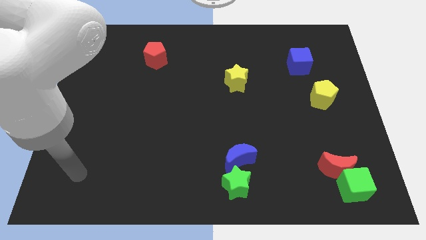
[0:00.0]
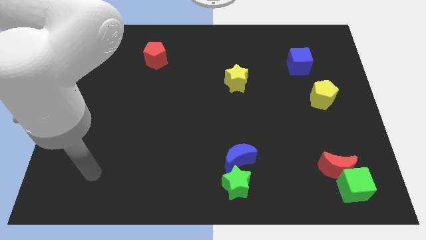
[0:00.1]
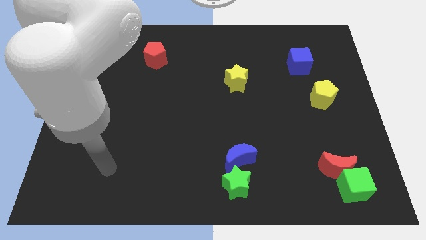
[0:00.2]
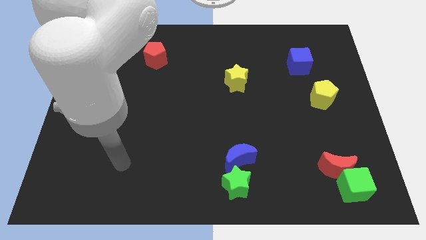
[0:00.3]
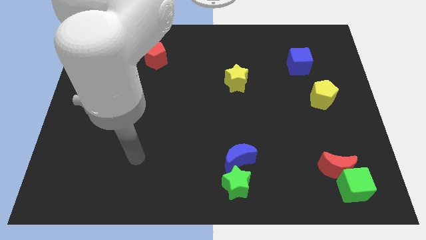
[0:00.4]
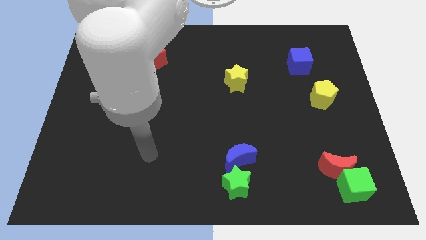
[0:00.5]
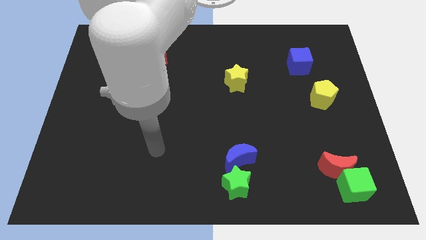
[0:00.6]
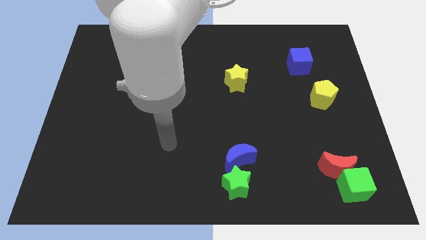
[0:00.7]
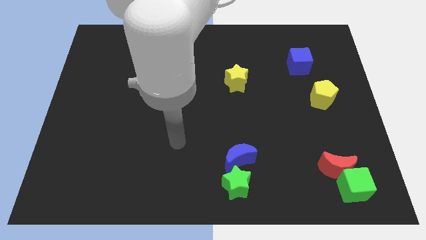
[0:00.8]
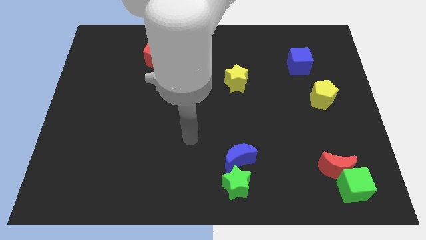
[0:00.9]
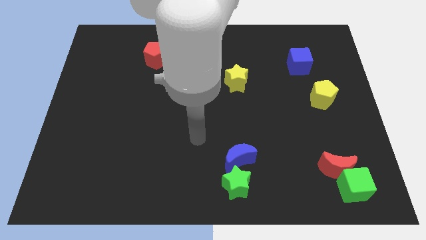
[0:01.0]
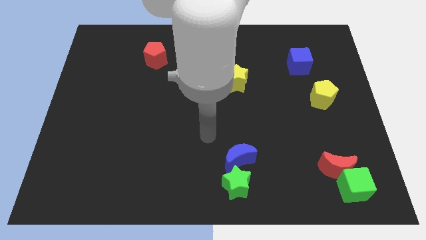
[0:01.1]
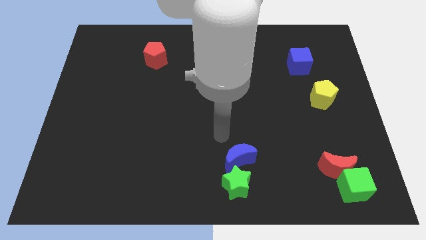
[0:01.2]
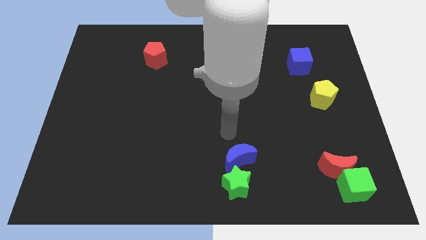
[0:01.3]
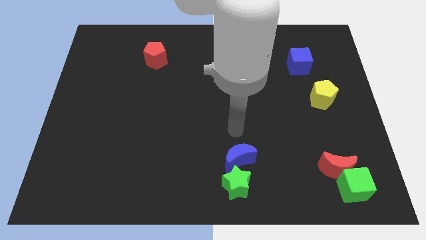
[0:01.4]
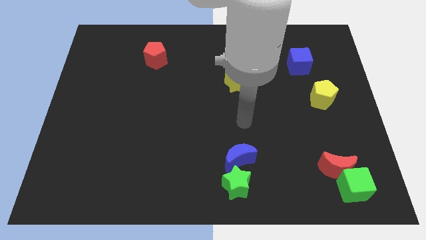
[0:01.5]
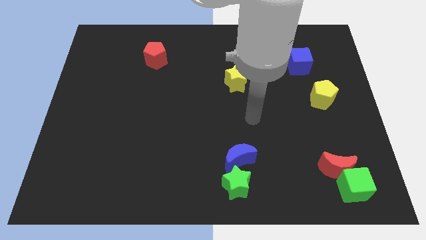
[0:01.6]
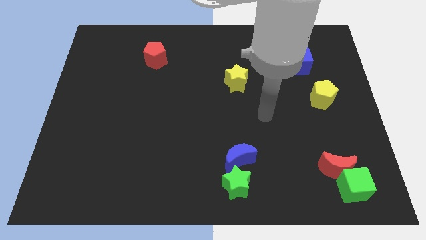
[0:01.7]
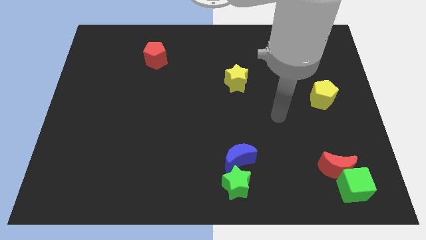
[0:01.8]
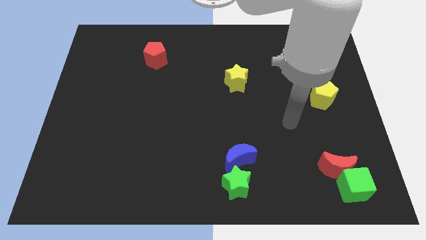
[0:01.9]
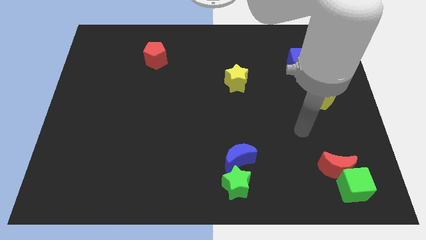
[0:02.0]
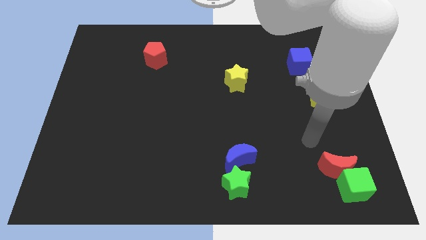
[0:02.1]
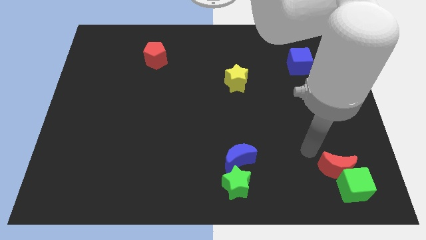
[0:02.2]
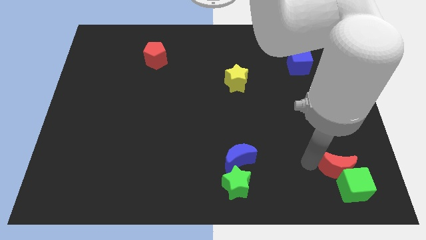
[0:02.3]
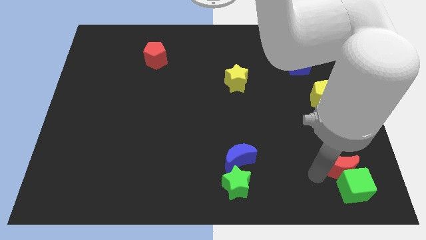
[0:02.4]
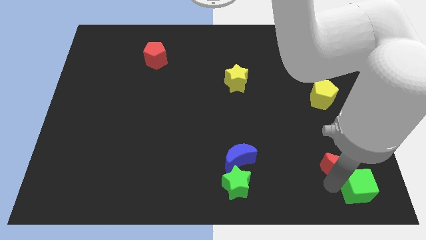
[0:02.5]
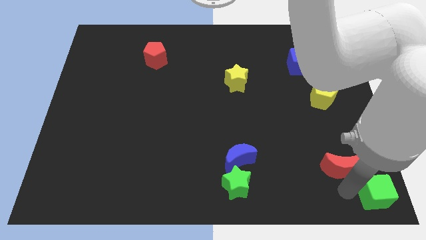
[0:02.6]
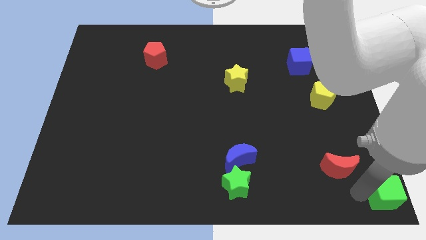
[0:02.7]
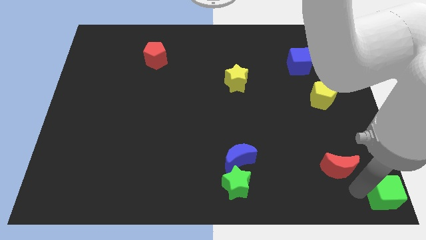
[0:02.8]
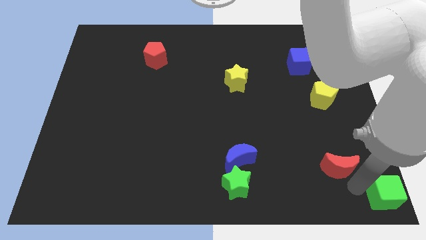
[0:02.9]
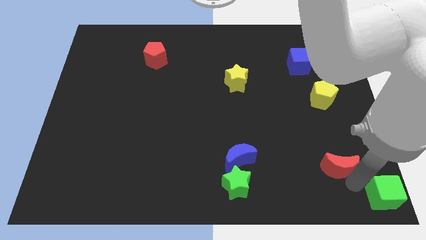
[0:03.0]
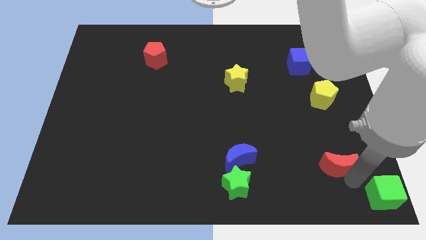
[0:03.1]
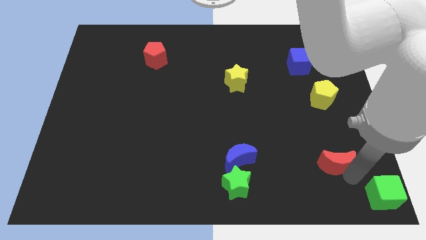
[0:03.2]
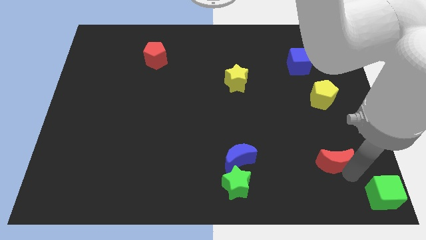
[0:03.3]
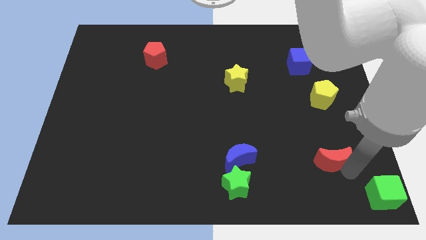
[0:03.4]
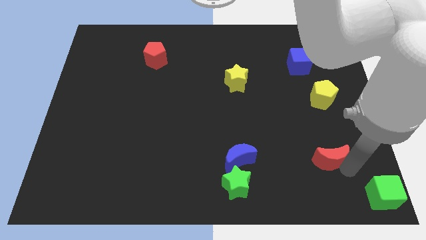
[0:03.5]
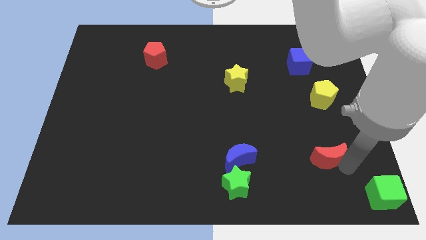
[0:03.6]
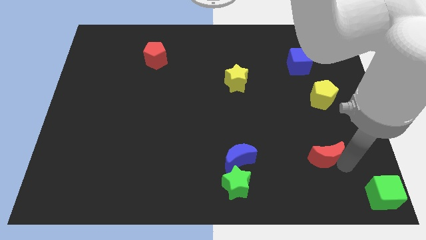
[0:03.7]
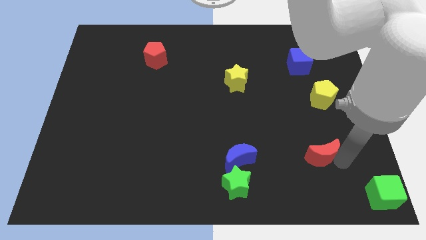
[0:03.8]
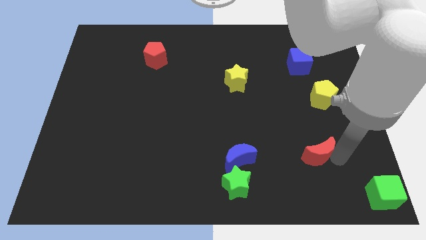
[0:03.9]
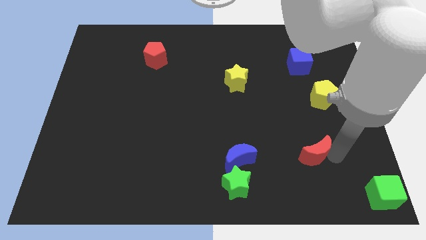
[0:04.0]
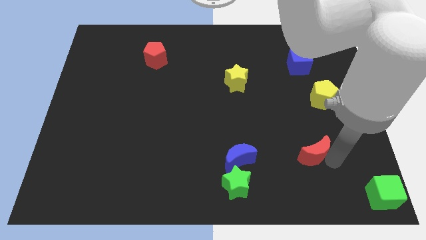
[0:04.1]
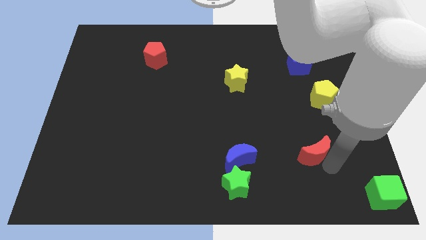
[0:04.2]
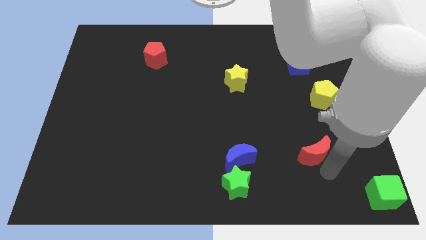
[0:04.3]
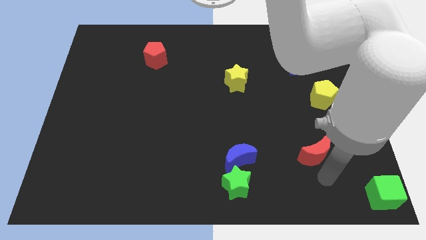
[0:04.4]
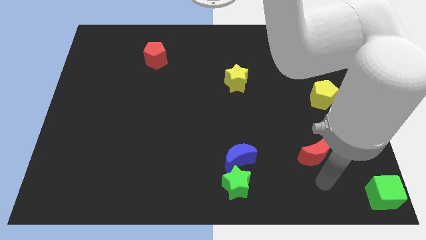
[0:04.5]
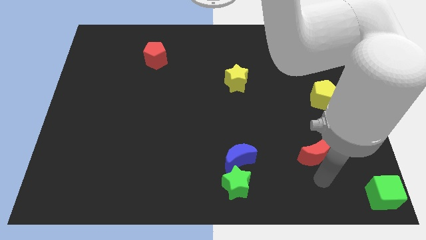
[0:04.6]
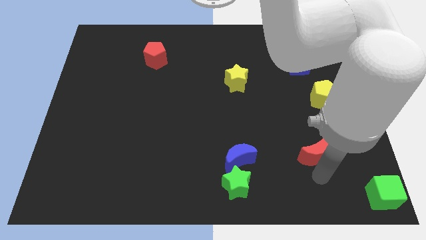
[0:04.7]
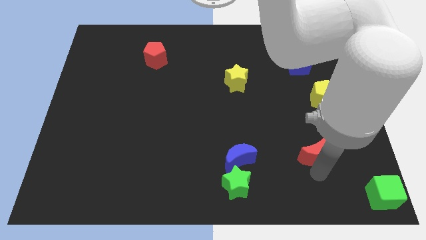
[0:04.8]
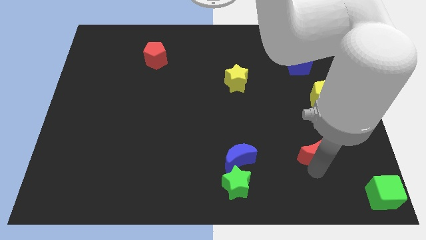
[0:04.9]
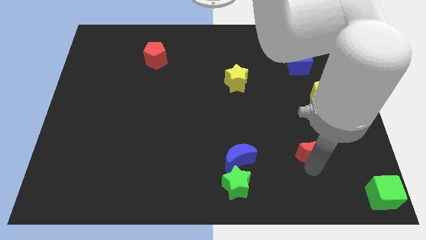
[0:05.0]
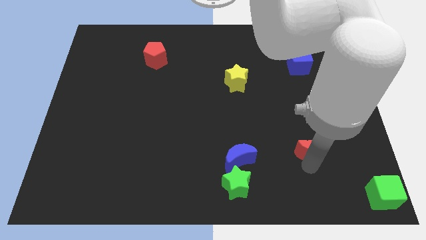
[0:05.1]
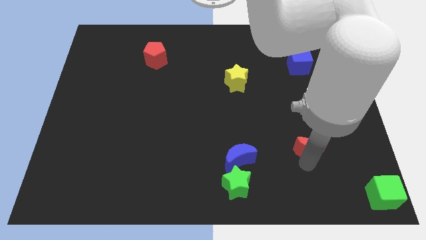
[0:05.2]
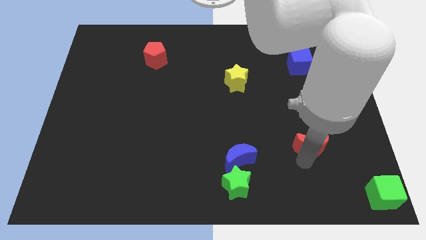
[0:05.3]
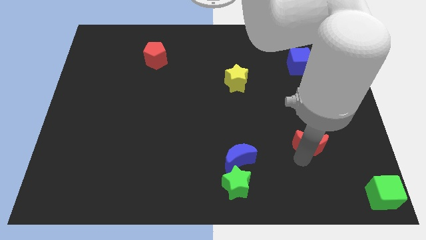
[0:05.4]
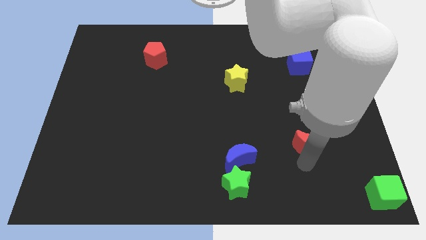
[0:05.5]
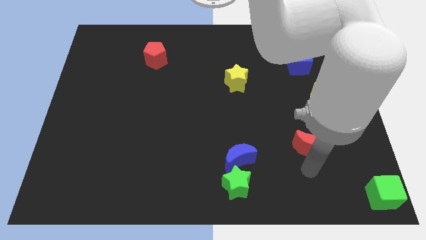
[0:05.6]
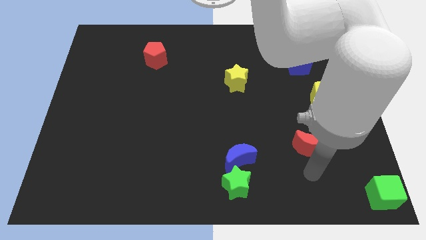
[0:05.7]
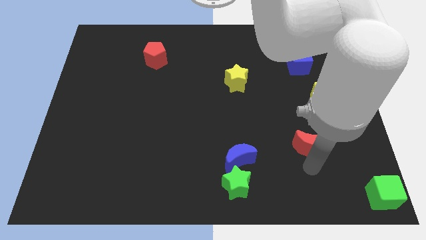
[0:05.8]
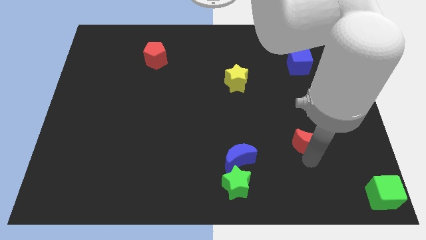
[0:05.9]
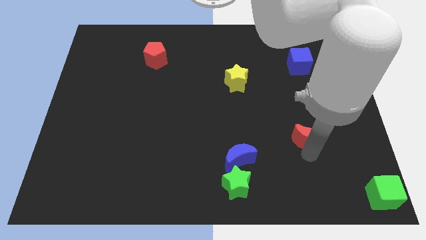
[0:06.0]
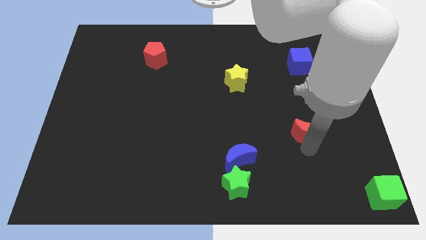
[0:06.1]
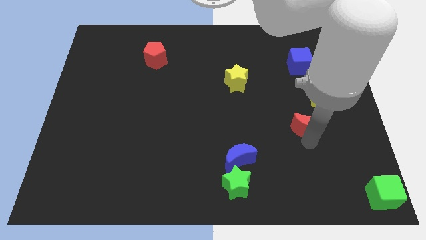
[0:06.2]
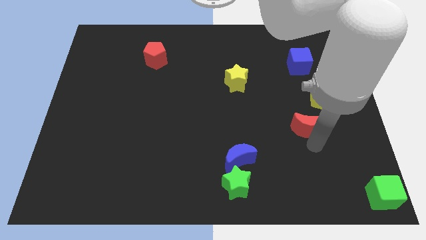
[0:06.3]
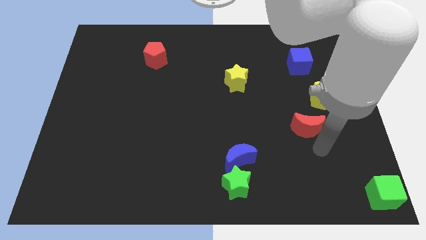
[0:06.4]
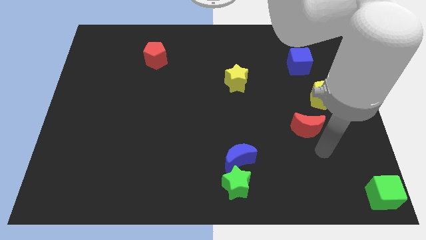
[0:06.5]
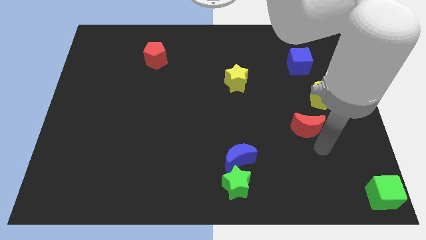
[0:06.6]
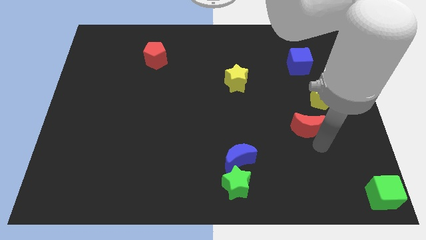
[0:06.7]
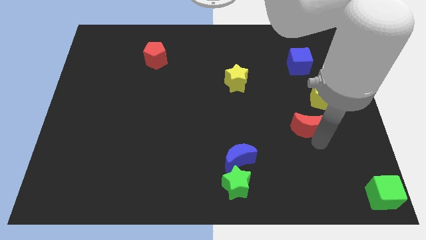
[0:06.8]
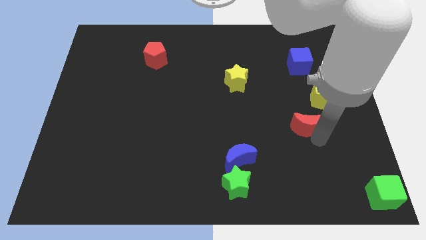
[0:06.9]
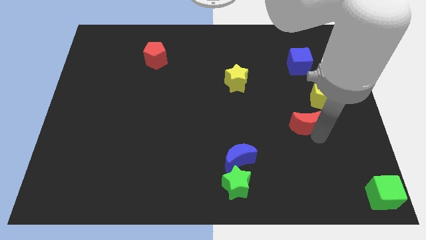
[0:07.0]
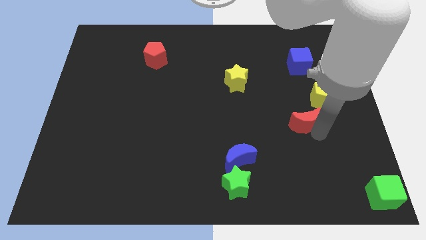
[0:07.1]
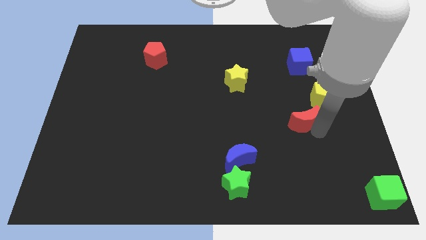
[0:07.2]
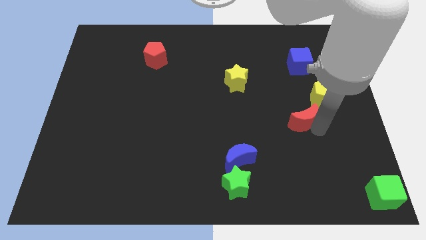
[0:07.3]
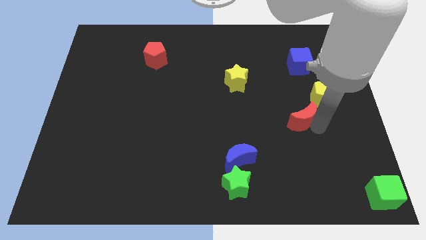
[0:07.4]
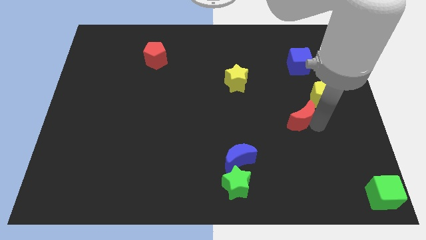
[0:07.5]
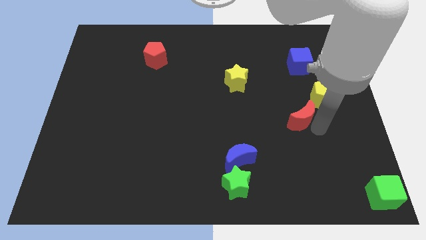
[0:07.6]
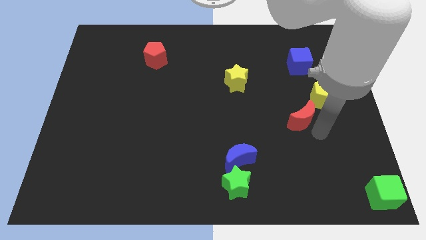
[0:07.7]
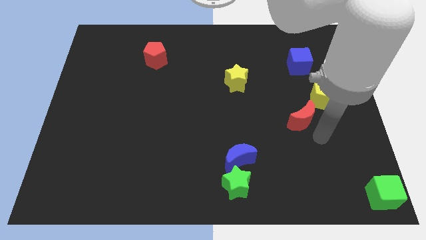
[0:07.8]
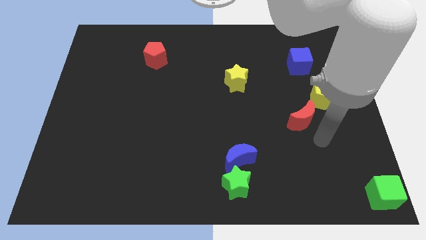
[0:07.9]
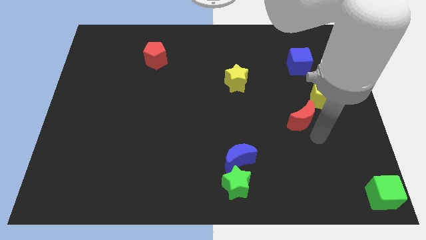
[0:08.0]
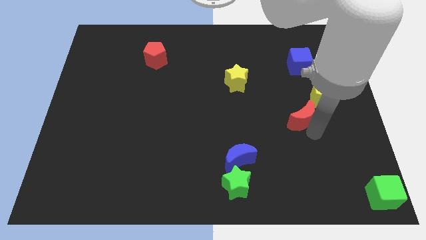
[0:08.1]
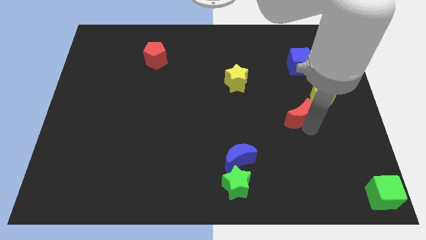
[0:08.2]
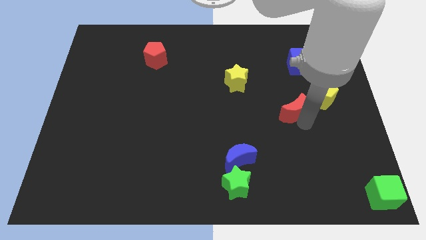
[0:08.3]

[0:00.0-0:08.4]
push the red moon left of the yellow pentagon
